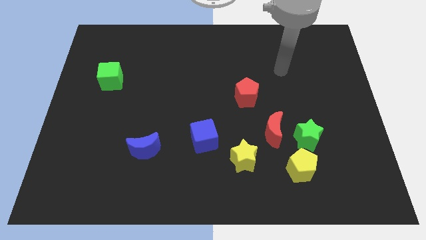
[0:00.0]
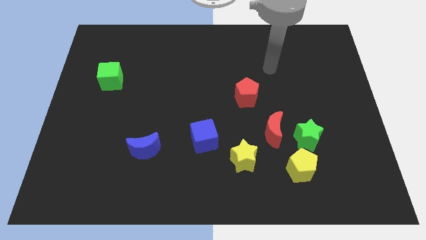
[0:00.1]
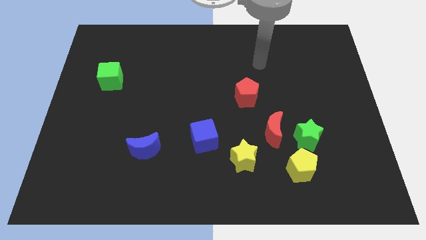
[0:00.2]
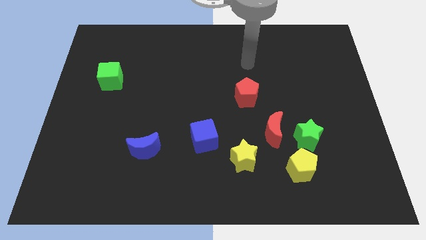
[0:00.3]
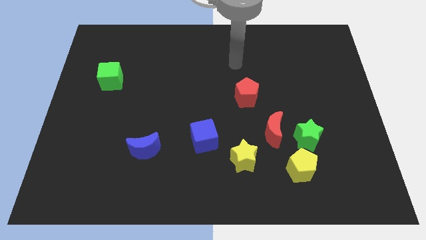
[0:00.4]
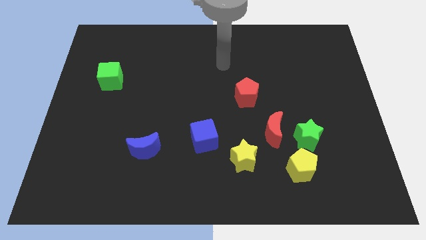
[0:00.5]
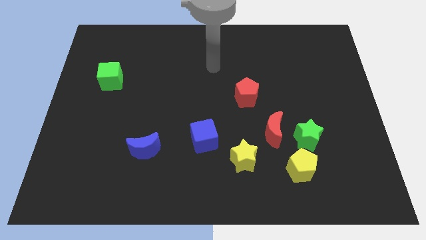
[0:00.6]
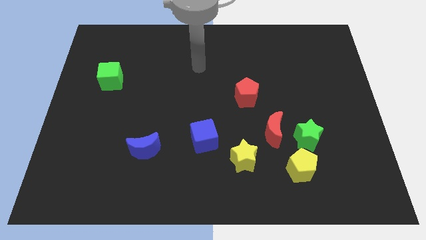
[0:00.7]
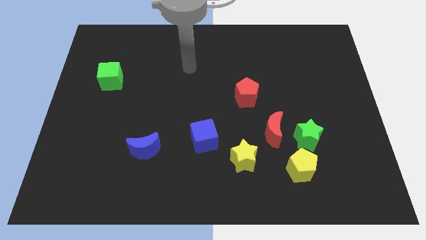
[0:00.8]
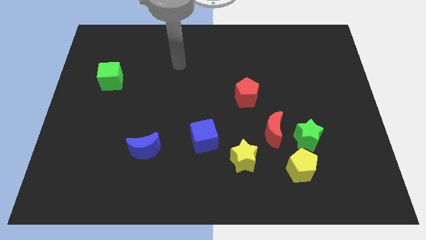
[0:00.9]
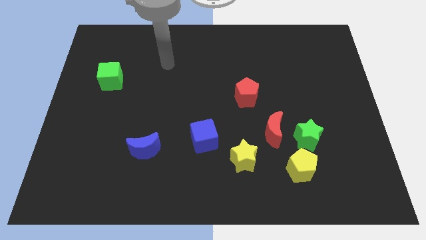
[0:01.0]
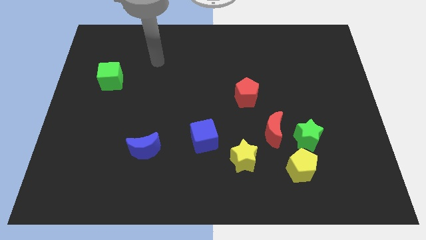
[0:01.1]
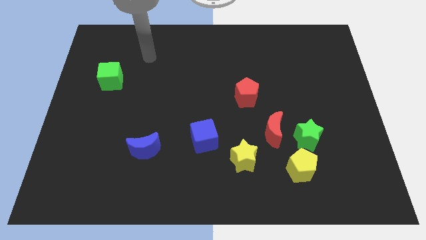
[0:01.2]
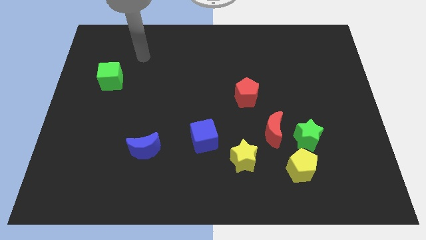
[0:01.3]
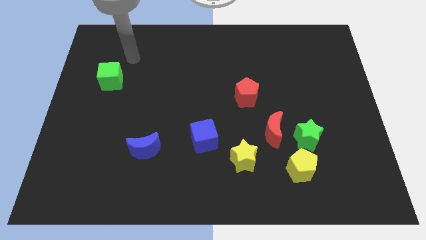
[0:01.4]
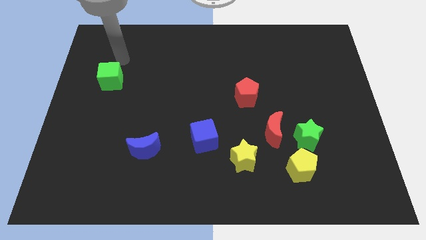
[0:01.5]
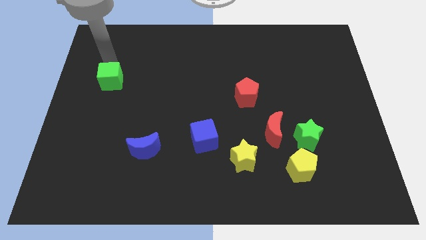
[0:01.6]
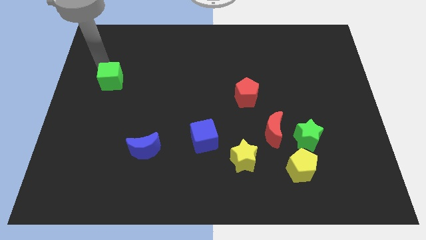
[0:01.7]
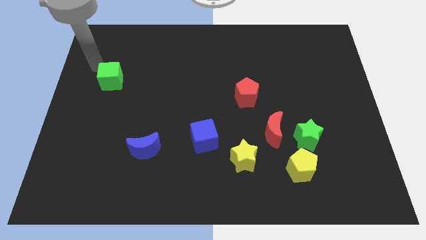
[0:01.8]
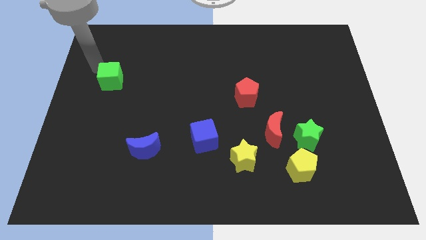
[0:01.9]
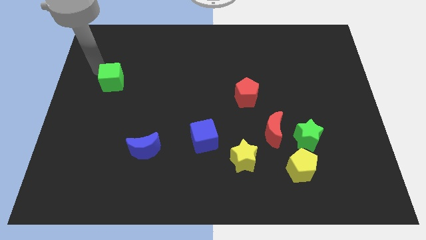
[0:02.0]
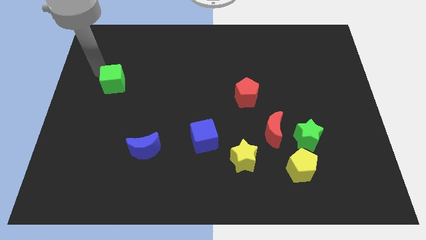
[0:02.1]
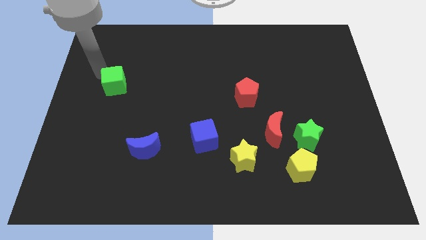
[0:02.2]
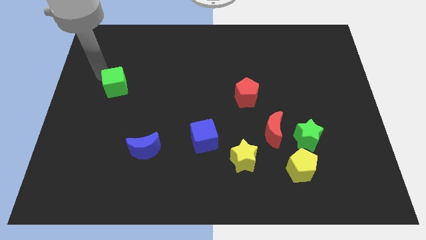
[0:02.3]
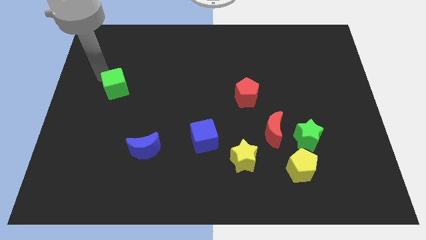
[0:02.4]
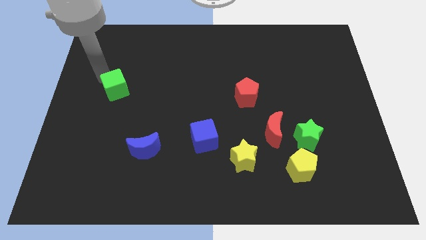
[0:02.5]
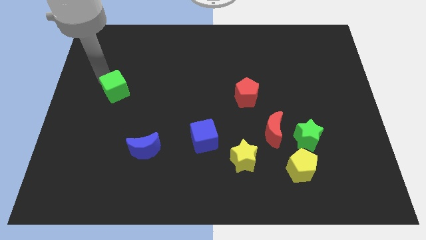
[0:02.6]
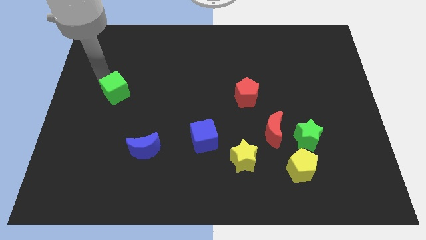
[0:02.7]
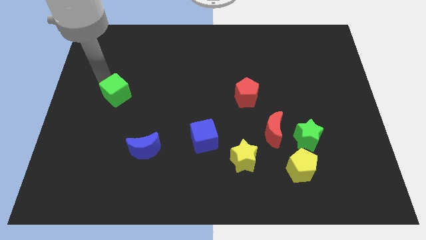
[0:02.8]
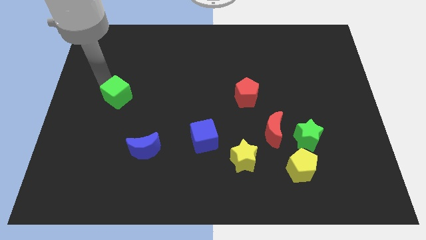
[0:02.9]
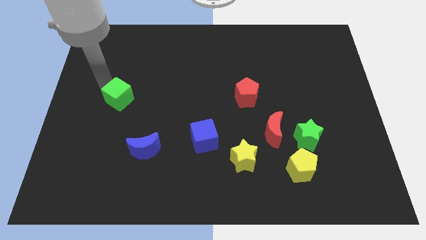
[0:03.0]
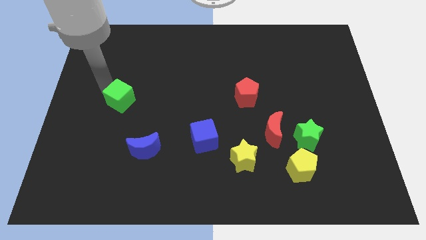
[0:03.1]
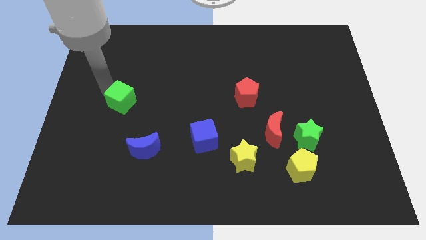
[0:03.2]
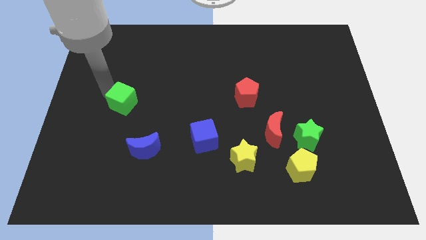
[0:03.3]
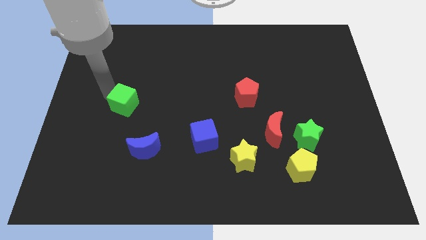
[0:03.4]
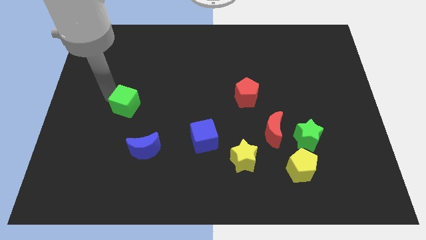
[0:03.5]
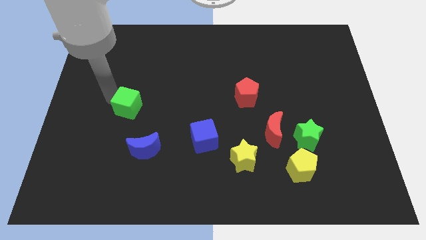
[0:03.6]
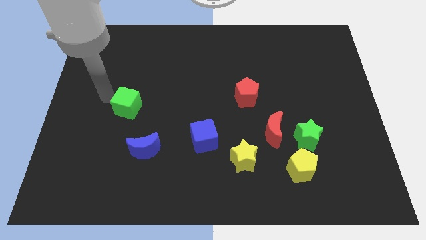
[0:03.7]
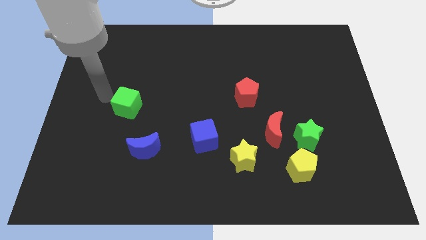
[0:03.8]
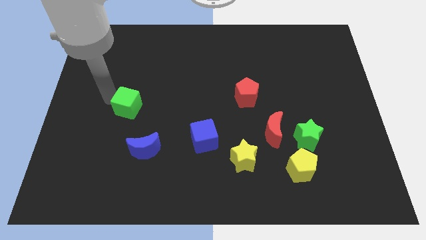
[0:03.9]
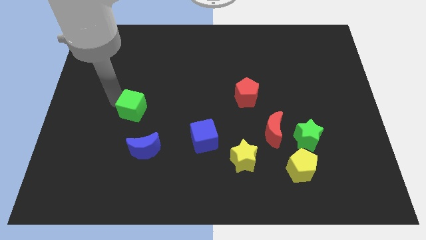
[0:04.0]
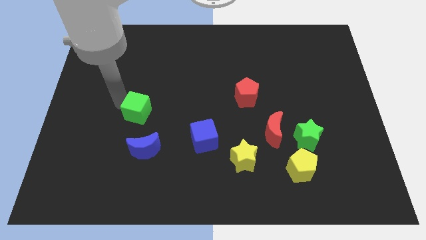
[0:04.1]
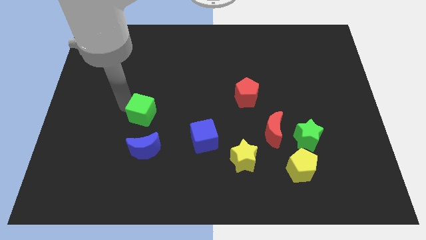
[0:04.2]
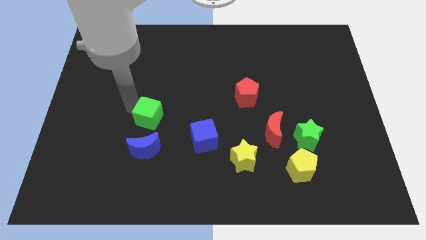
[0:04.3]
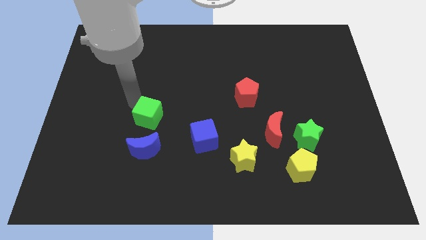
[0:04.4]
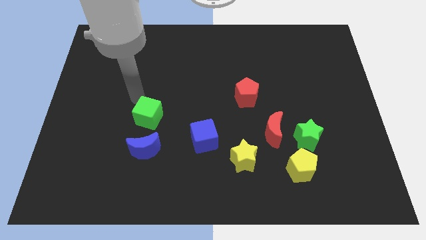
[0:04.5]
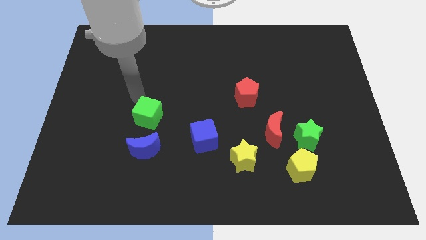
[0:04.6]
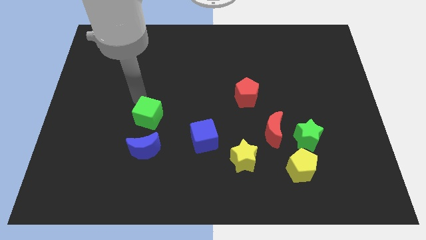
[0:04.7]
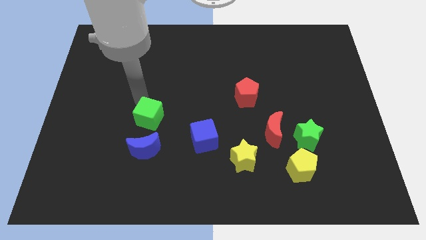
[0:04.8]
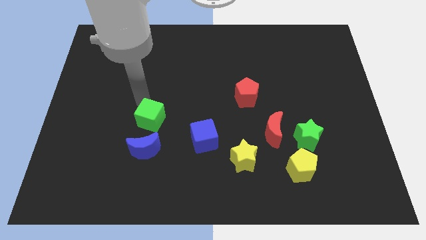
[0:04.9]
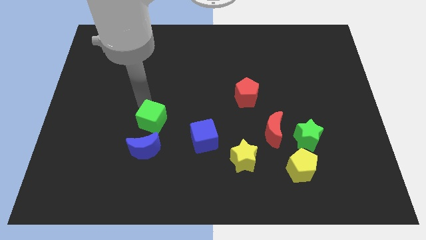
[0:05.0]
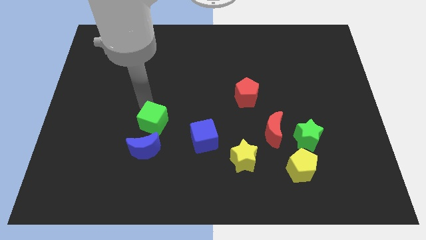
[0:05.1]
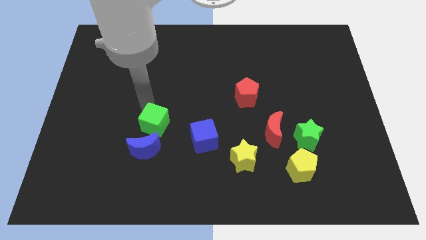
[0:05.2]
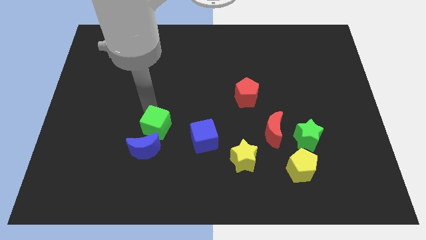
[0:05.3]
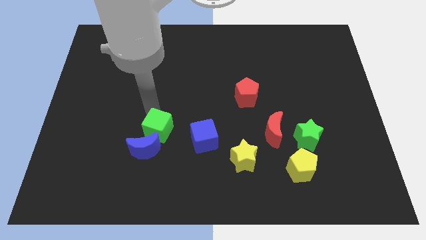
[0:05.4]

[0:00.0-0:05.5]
move the green cube diagonally downwards and right

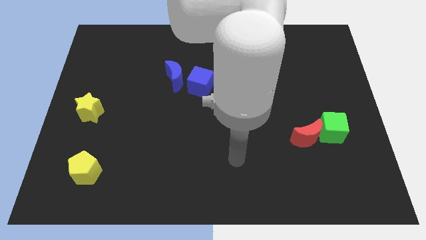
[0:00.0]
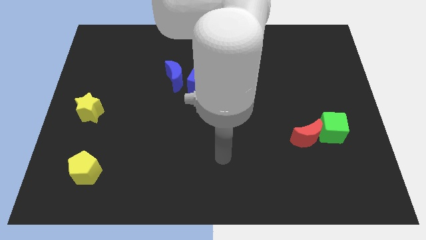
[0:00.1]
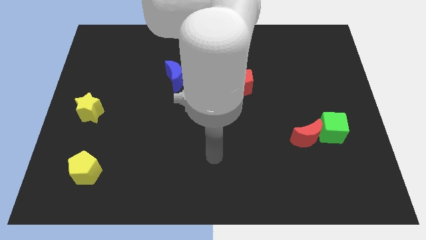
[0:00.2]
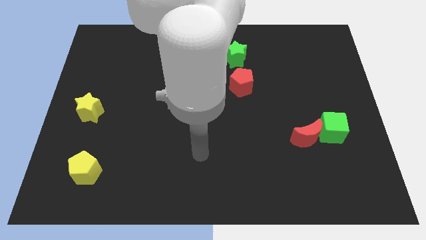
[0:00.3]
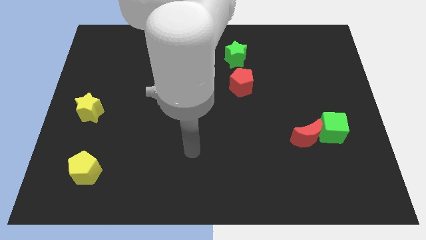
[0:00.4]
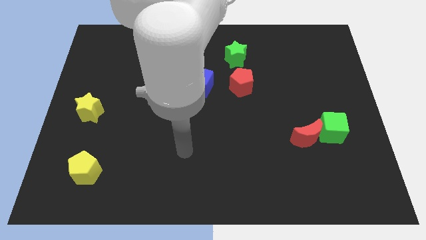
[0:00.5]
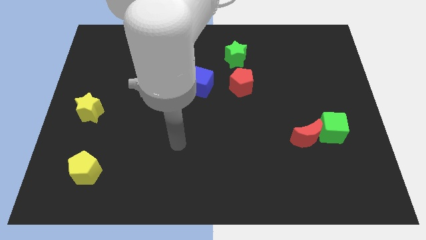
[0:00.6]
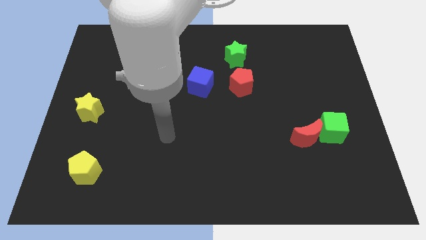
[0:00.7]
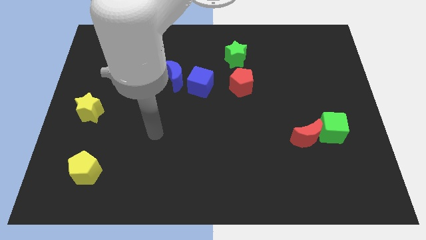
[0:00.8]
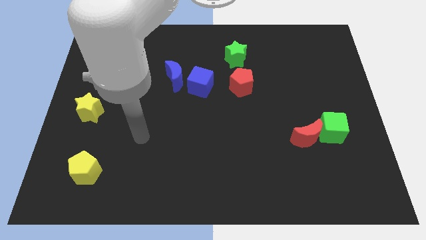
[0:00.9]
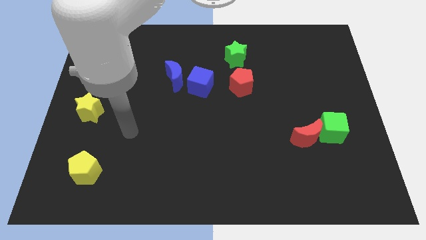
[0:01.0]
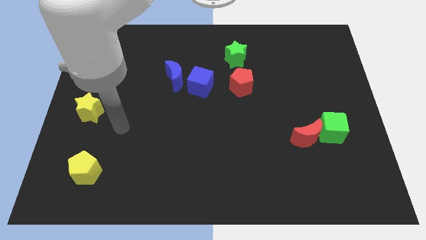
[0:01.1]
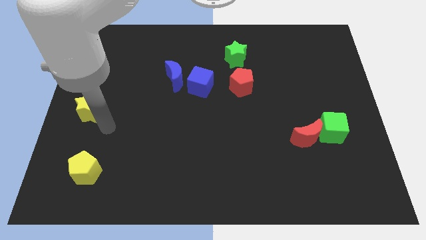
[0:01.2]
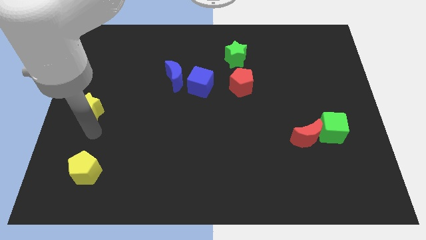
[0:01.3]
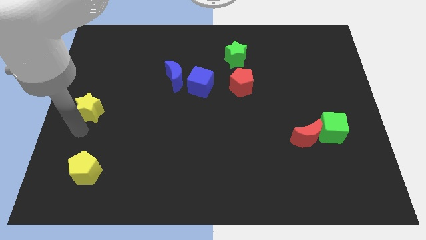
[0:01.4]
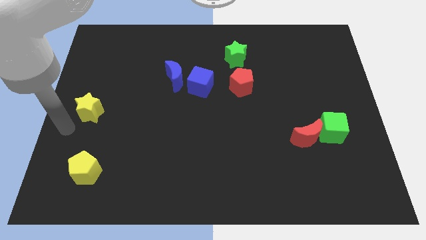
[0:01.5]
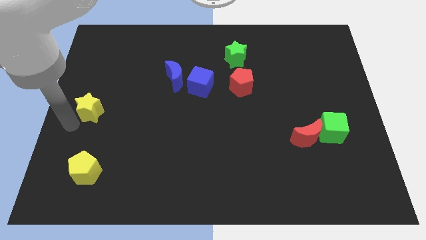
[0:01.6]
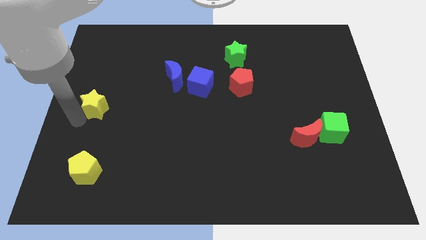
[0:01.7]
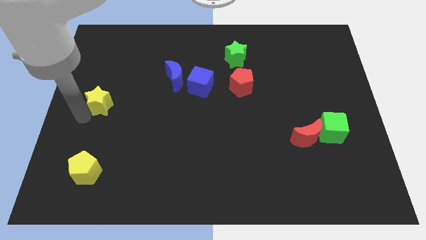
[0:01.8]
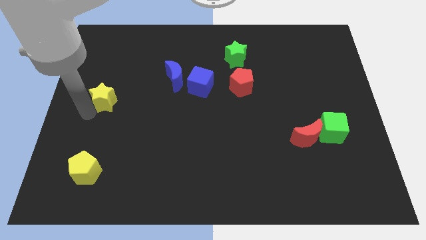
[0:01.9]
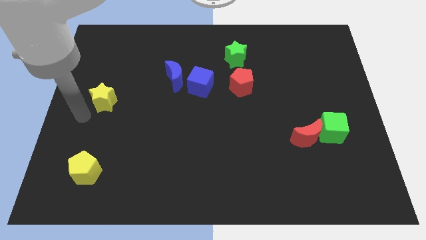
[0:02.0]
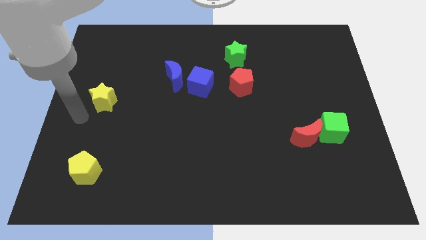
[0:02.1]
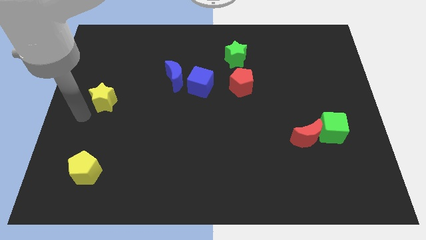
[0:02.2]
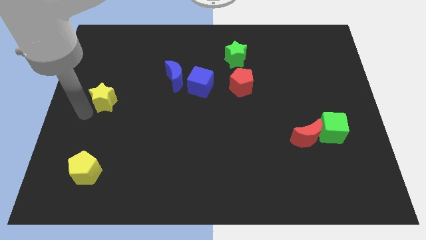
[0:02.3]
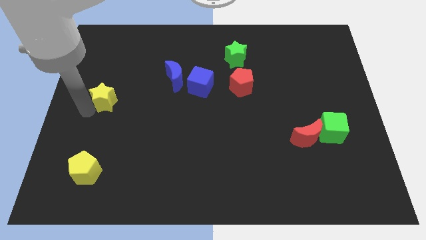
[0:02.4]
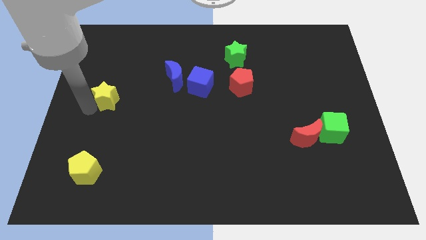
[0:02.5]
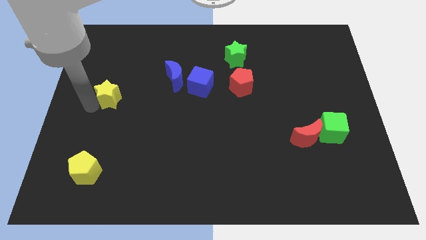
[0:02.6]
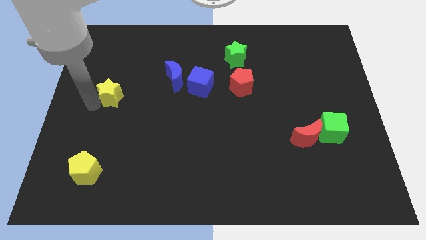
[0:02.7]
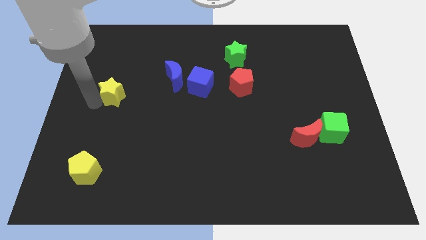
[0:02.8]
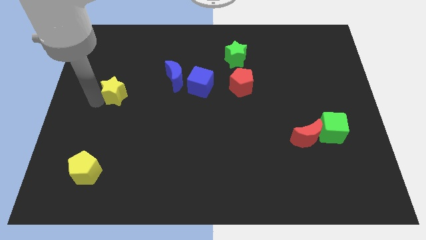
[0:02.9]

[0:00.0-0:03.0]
slightly push the yellow star upwards and right diagonally
